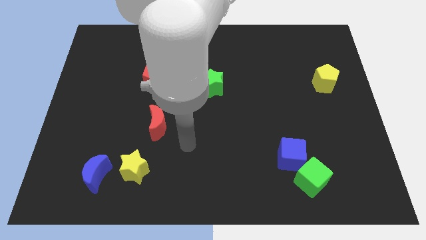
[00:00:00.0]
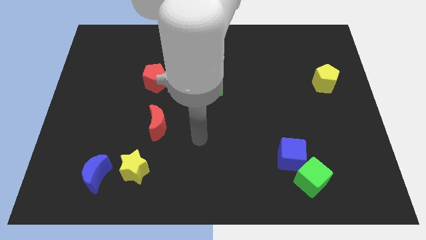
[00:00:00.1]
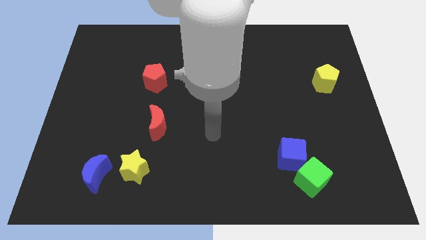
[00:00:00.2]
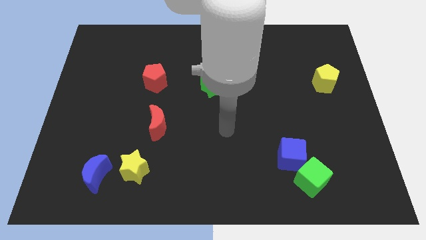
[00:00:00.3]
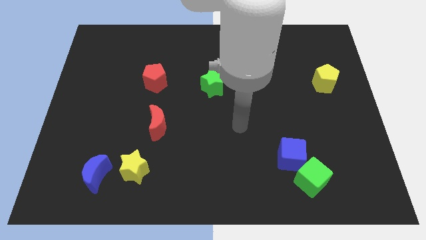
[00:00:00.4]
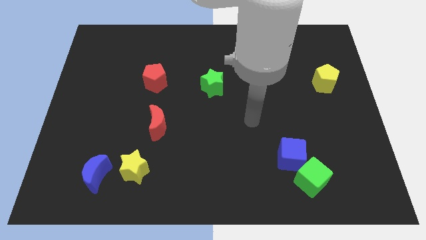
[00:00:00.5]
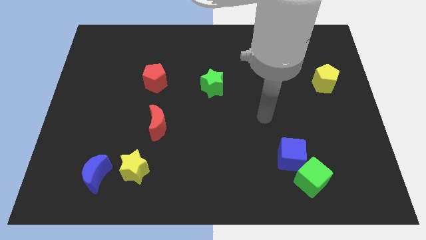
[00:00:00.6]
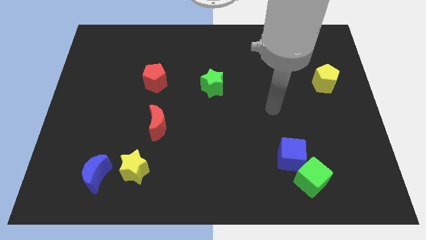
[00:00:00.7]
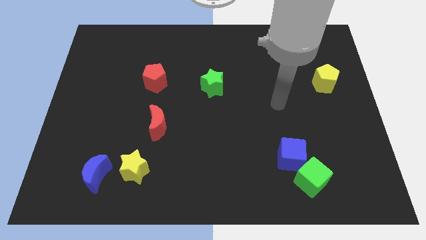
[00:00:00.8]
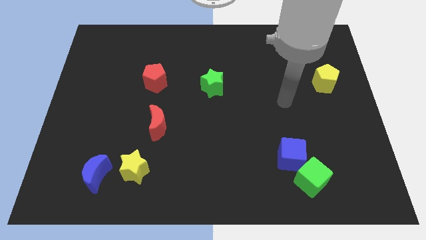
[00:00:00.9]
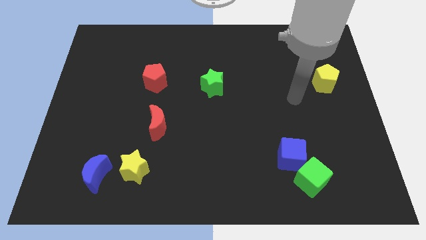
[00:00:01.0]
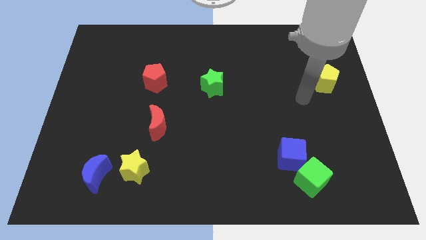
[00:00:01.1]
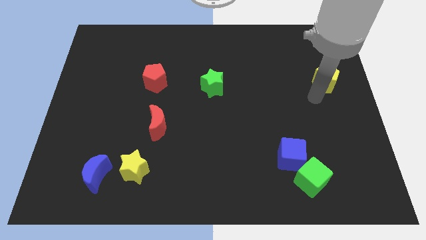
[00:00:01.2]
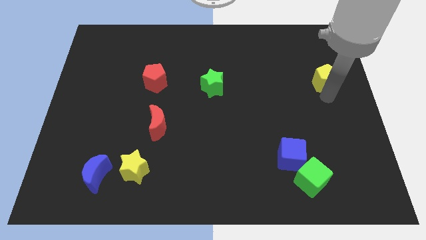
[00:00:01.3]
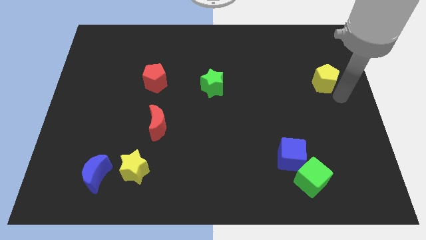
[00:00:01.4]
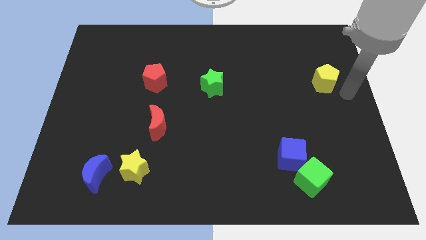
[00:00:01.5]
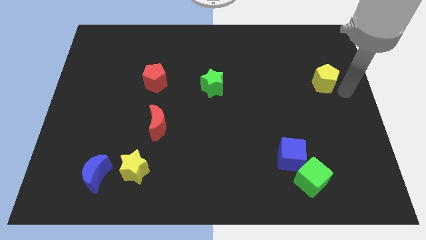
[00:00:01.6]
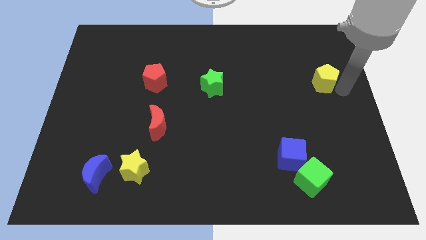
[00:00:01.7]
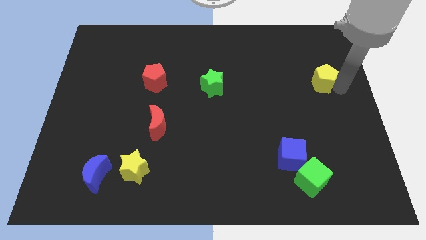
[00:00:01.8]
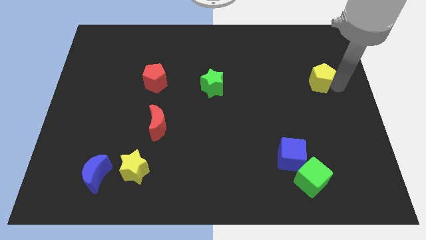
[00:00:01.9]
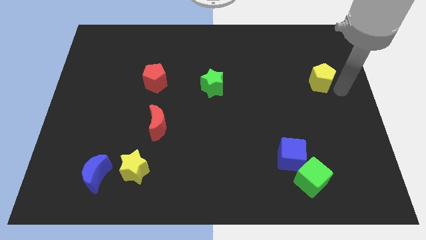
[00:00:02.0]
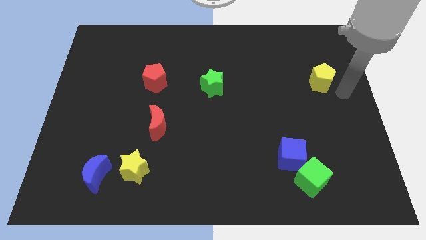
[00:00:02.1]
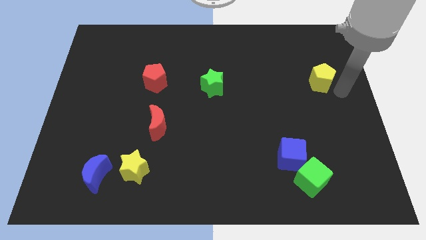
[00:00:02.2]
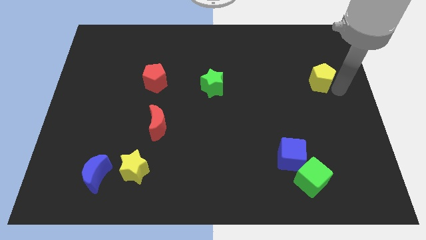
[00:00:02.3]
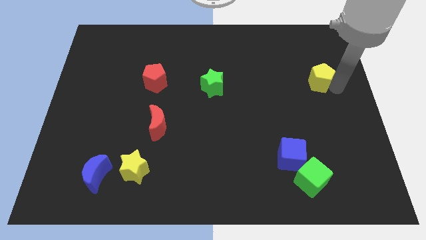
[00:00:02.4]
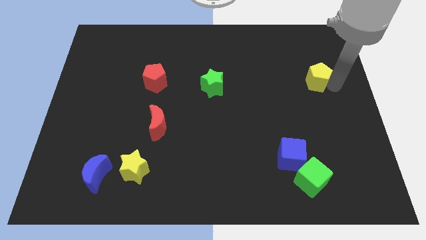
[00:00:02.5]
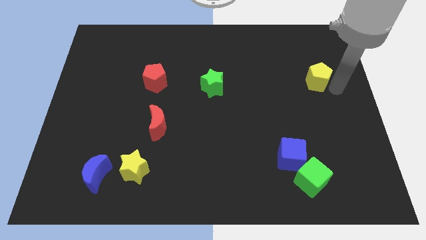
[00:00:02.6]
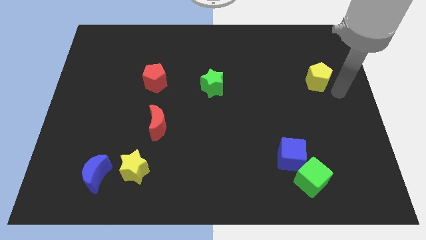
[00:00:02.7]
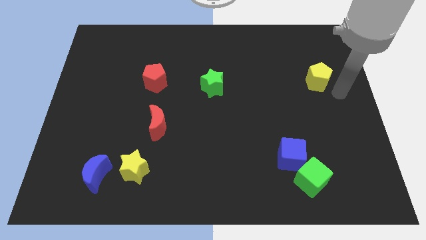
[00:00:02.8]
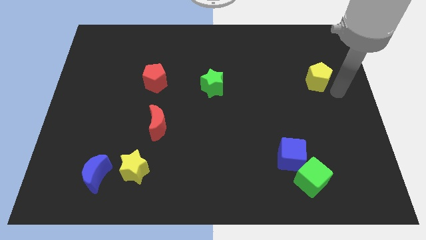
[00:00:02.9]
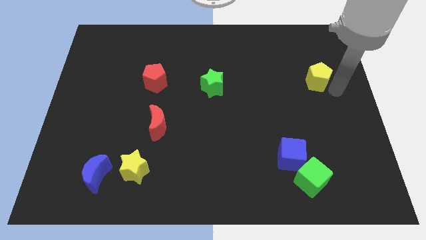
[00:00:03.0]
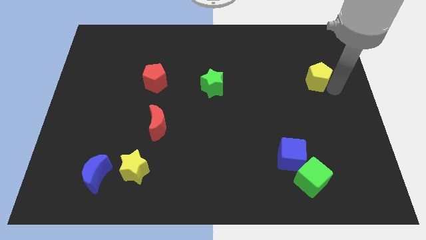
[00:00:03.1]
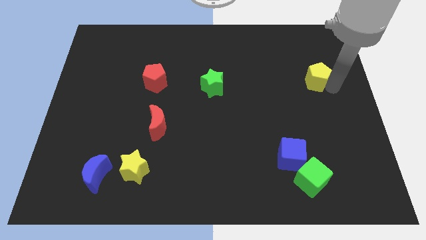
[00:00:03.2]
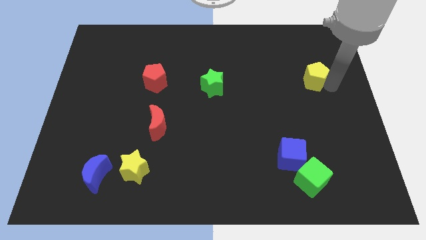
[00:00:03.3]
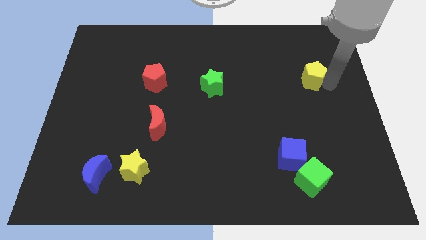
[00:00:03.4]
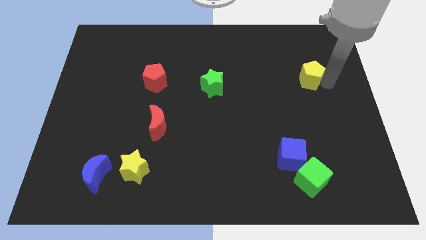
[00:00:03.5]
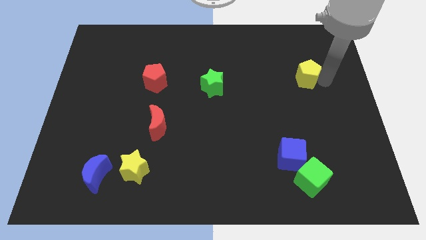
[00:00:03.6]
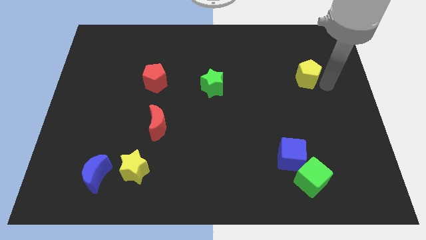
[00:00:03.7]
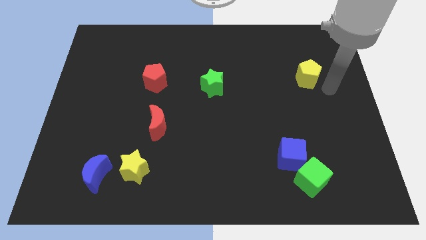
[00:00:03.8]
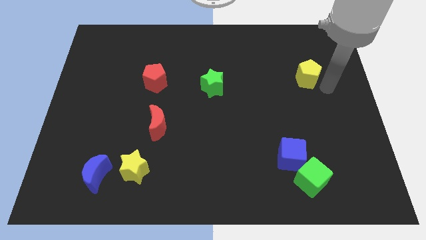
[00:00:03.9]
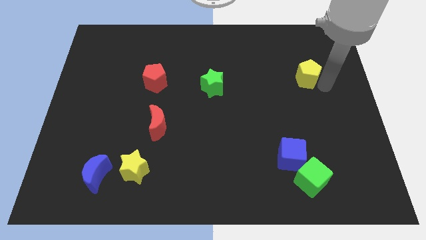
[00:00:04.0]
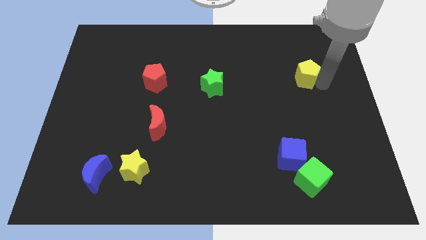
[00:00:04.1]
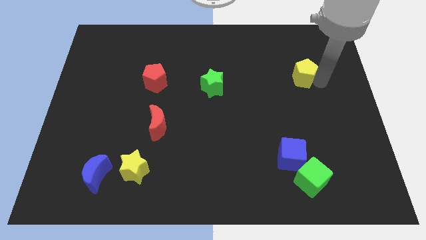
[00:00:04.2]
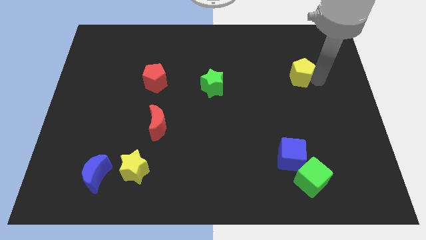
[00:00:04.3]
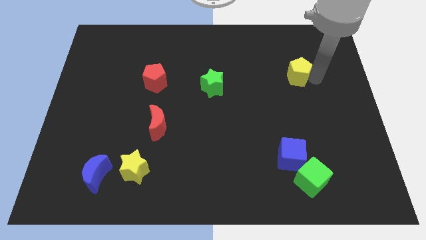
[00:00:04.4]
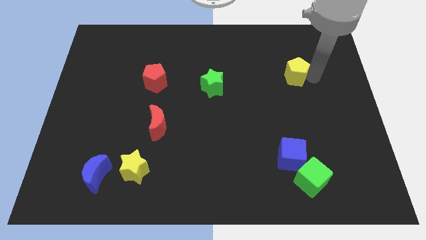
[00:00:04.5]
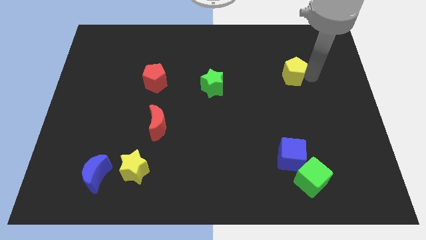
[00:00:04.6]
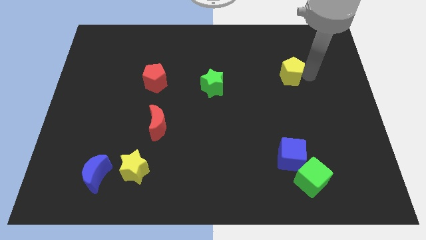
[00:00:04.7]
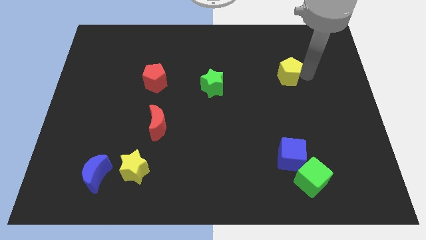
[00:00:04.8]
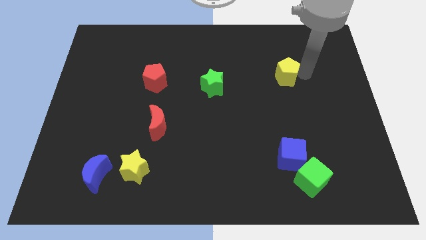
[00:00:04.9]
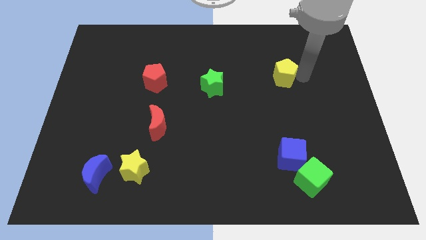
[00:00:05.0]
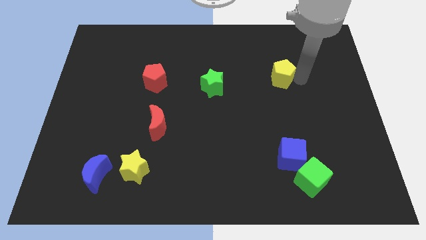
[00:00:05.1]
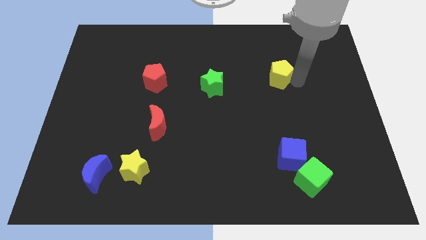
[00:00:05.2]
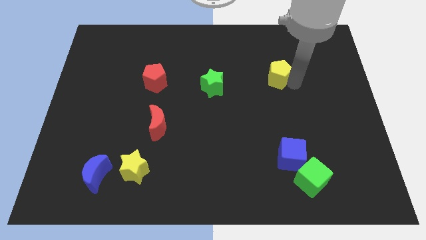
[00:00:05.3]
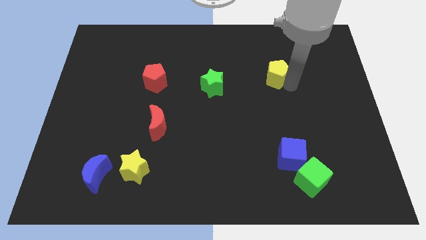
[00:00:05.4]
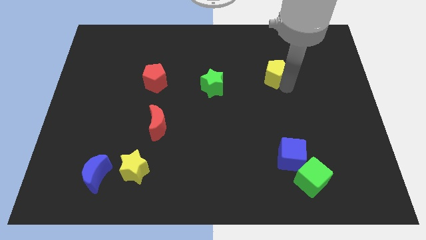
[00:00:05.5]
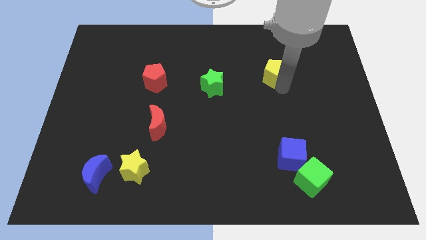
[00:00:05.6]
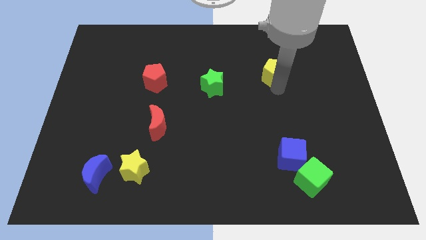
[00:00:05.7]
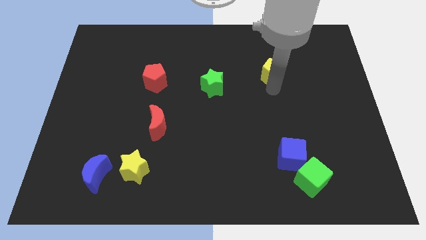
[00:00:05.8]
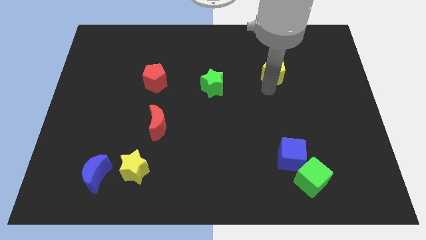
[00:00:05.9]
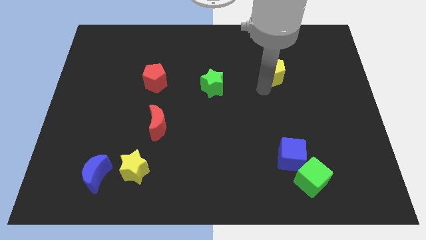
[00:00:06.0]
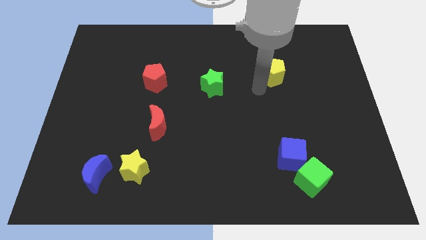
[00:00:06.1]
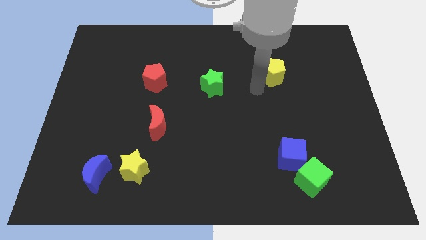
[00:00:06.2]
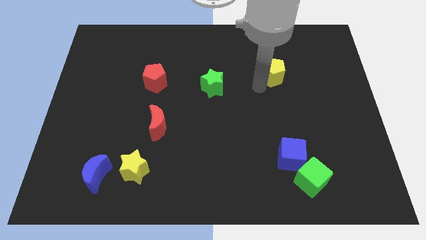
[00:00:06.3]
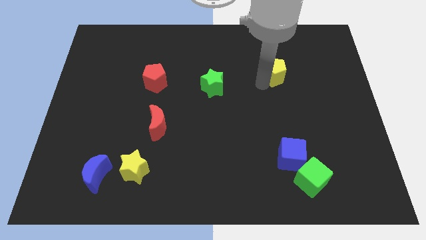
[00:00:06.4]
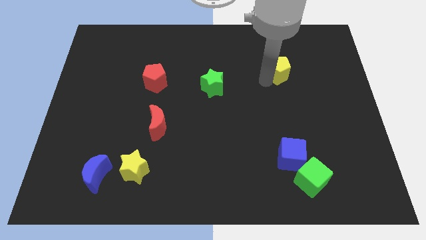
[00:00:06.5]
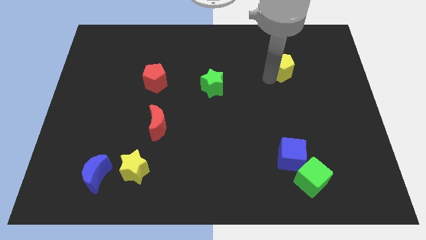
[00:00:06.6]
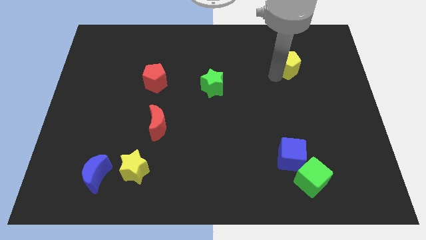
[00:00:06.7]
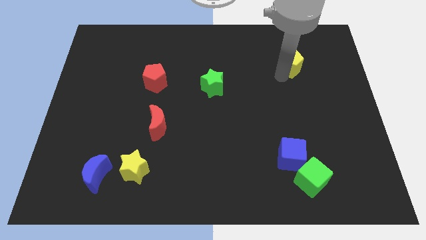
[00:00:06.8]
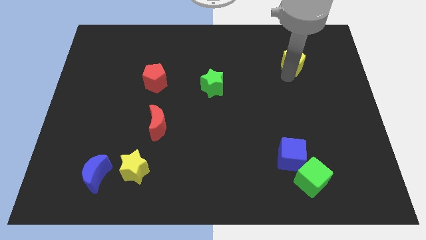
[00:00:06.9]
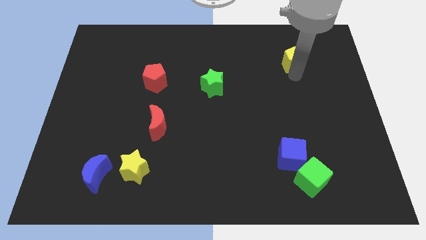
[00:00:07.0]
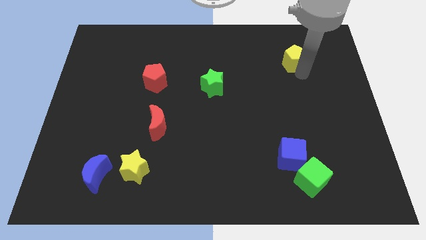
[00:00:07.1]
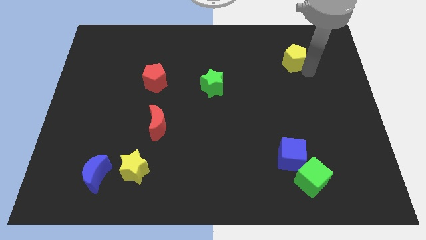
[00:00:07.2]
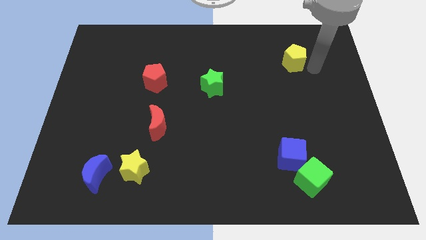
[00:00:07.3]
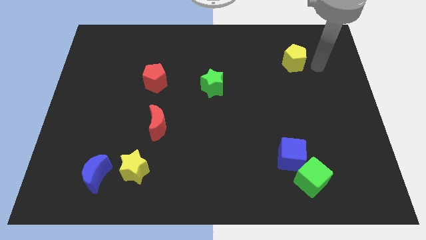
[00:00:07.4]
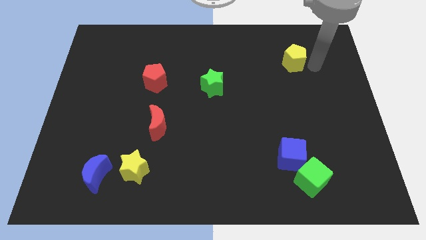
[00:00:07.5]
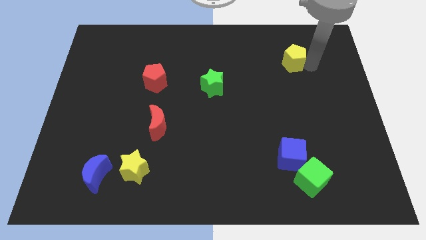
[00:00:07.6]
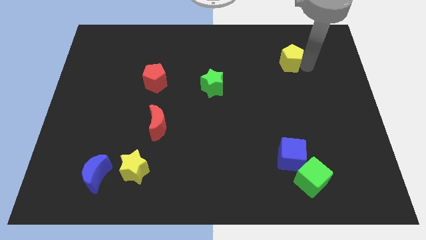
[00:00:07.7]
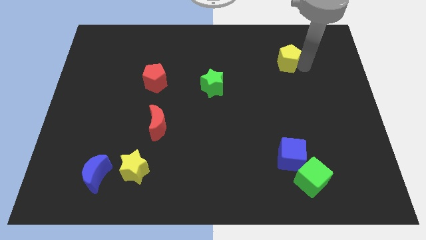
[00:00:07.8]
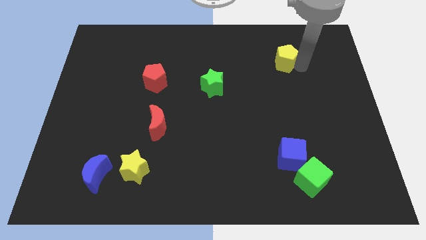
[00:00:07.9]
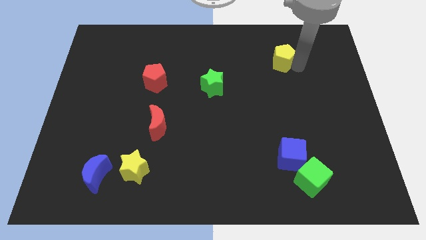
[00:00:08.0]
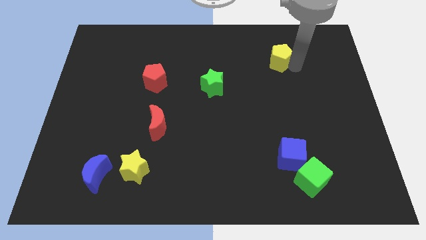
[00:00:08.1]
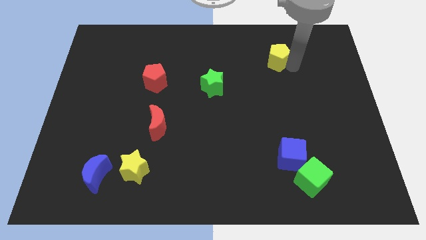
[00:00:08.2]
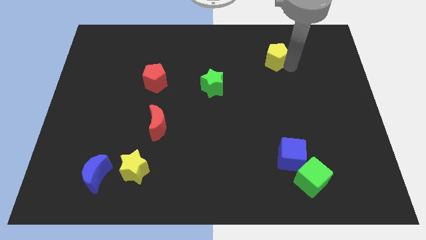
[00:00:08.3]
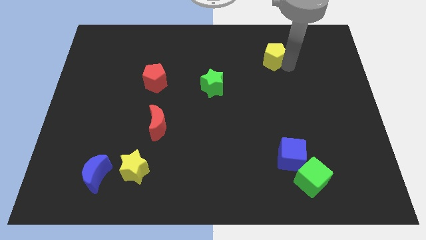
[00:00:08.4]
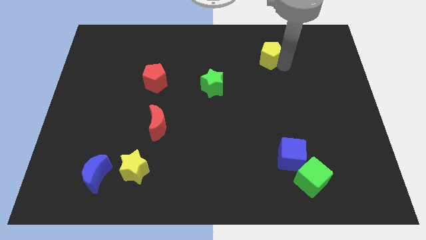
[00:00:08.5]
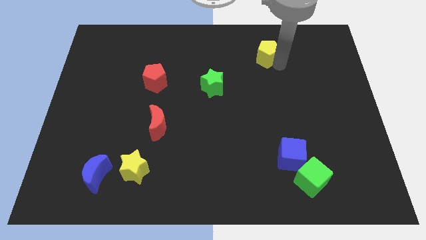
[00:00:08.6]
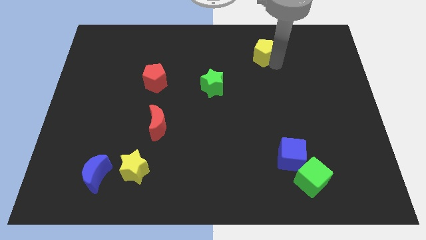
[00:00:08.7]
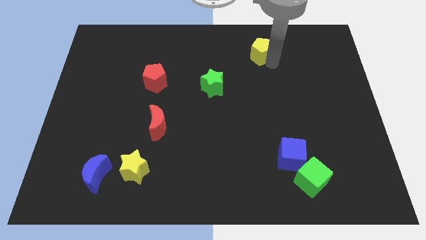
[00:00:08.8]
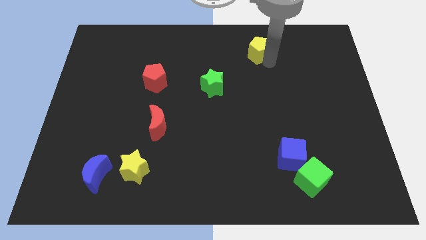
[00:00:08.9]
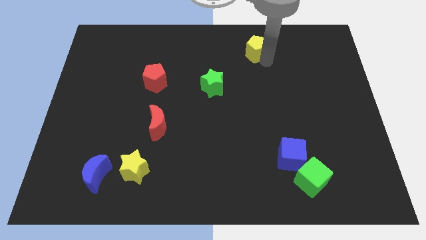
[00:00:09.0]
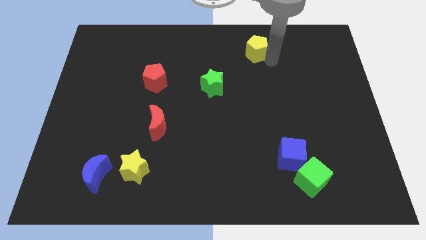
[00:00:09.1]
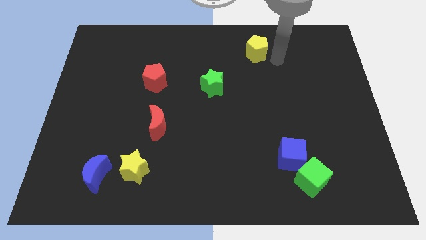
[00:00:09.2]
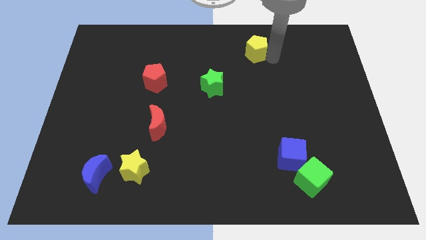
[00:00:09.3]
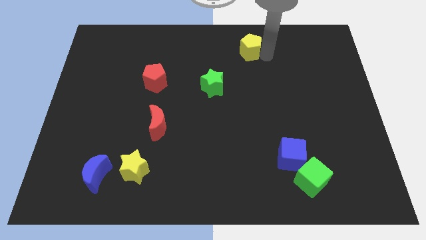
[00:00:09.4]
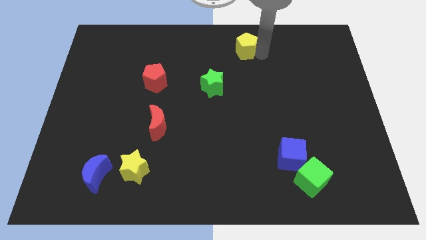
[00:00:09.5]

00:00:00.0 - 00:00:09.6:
put the yellow pentagon to the top
